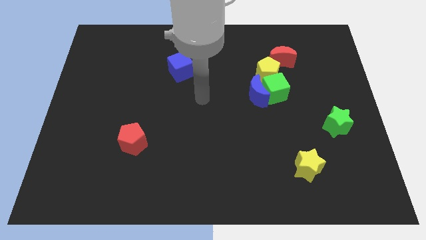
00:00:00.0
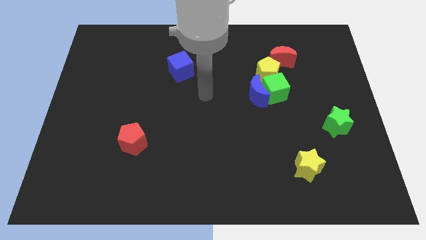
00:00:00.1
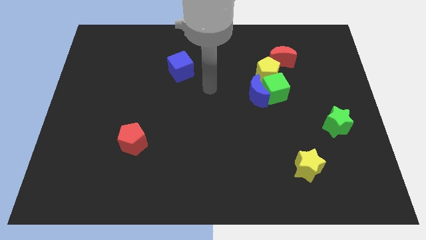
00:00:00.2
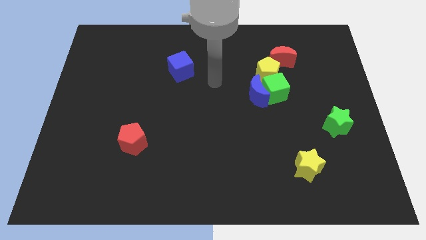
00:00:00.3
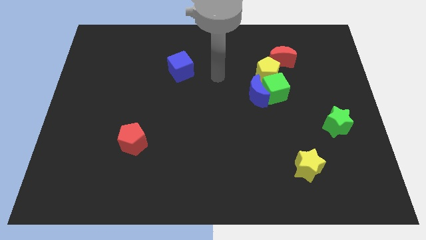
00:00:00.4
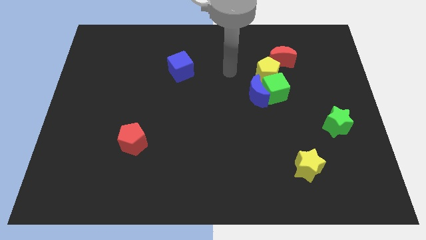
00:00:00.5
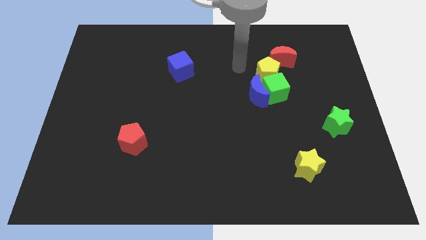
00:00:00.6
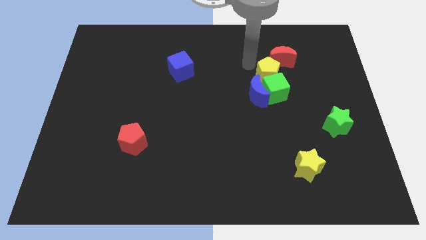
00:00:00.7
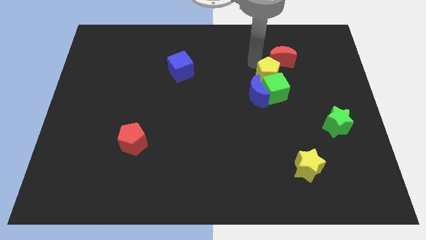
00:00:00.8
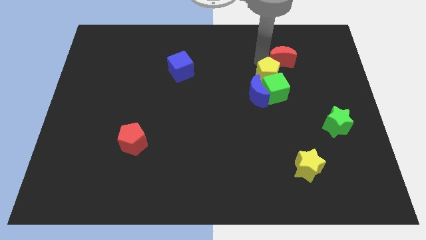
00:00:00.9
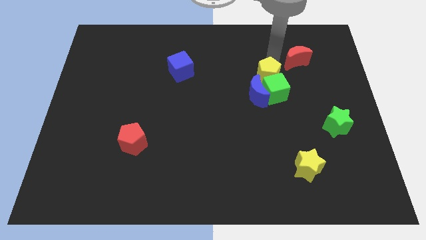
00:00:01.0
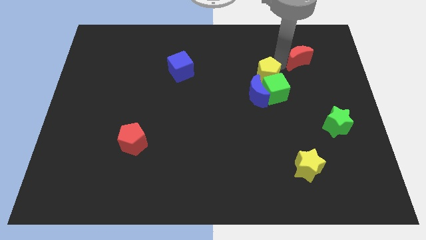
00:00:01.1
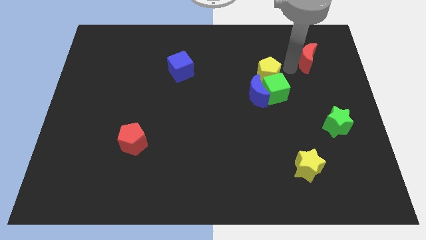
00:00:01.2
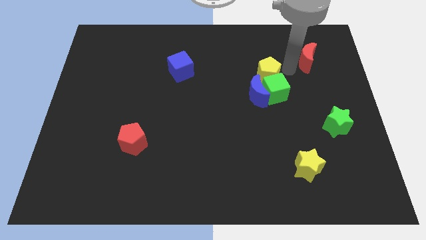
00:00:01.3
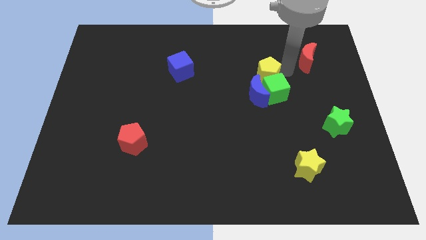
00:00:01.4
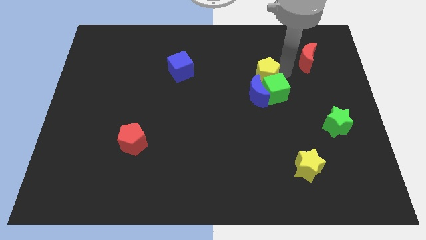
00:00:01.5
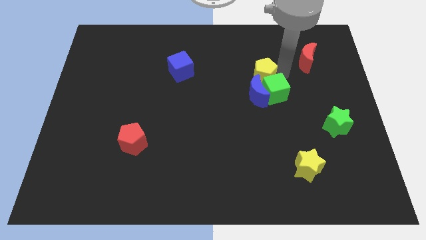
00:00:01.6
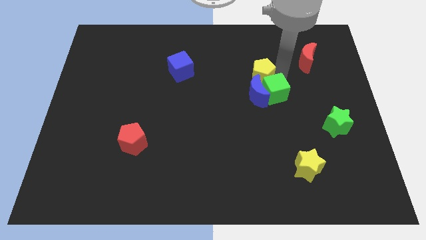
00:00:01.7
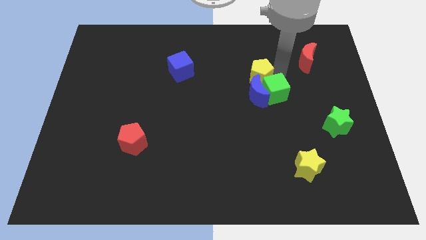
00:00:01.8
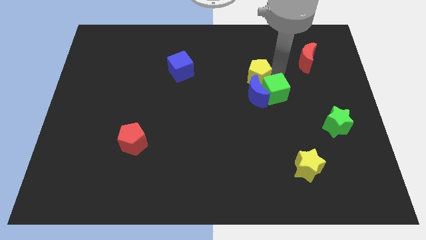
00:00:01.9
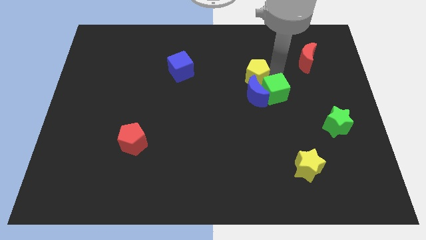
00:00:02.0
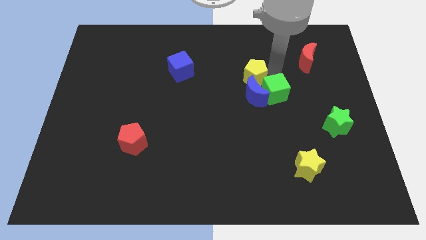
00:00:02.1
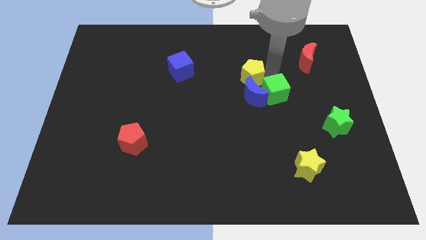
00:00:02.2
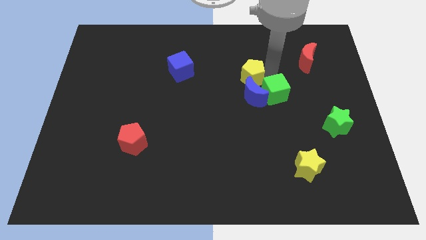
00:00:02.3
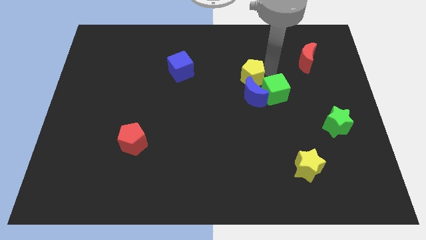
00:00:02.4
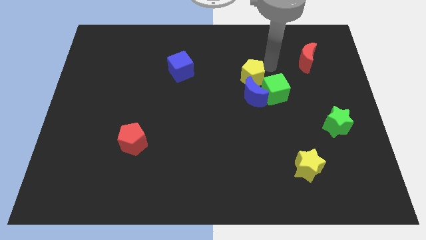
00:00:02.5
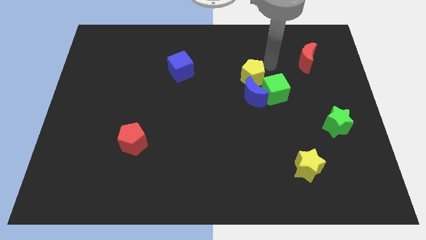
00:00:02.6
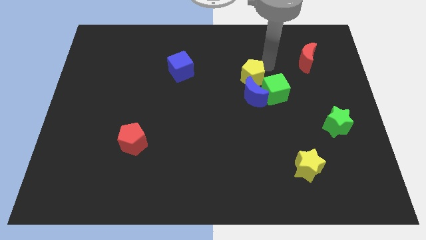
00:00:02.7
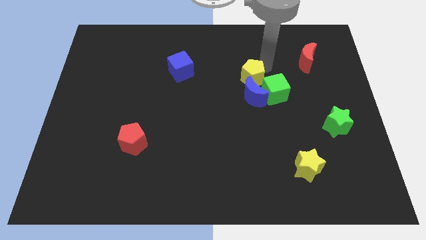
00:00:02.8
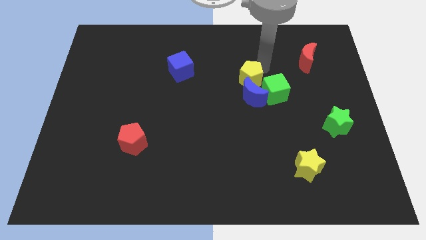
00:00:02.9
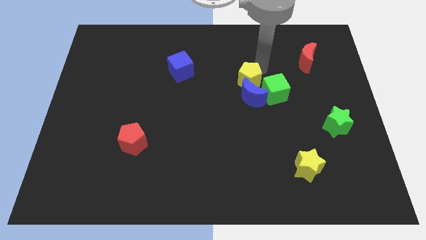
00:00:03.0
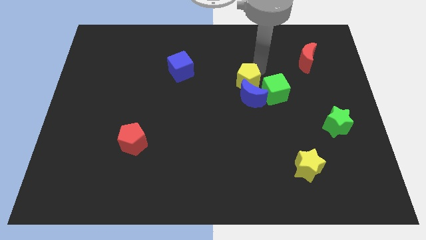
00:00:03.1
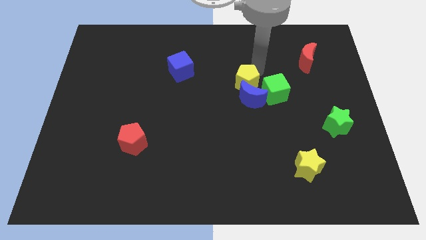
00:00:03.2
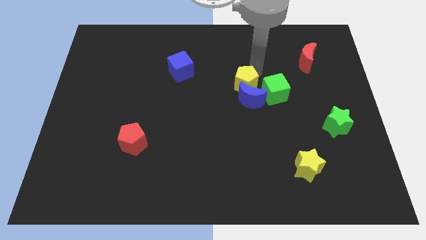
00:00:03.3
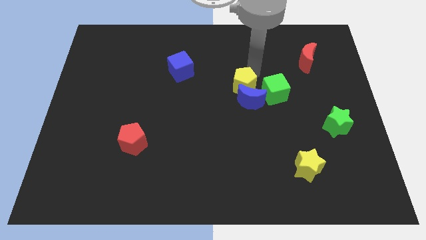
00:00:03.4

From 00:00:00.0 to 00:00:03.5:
move the yellow pentagon a little bit downwards and left

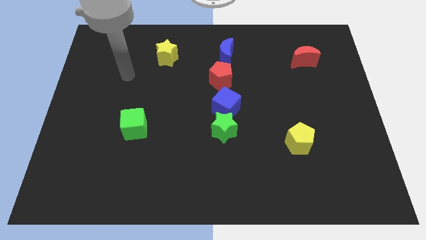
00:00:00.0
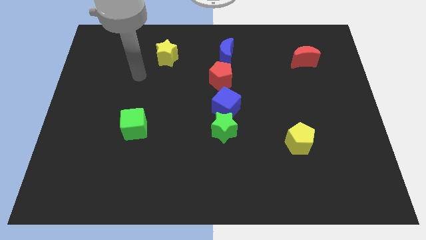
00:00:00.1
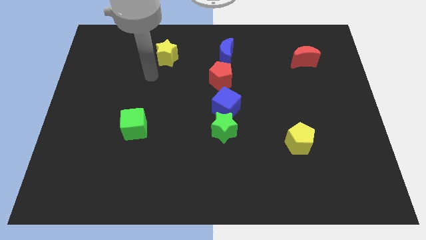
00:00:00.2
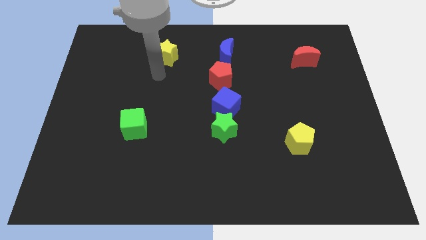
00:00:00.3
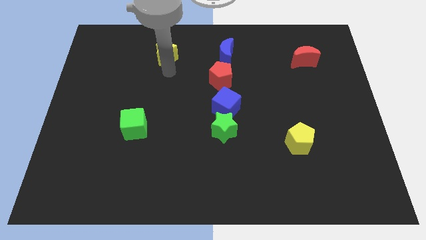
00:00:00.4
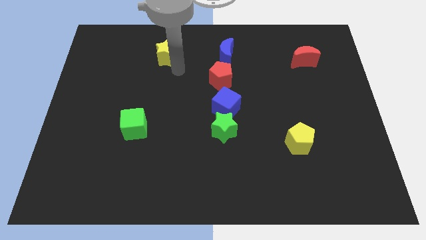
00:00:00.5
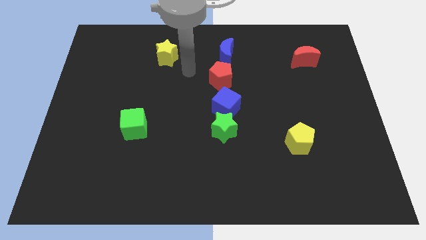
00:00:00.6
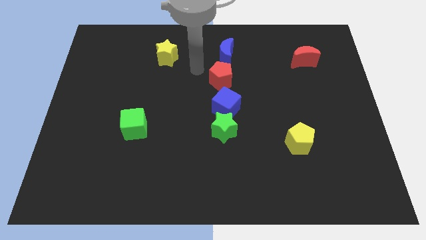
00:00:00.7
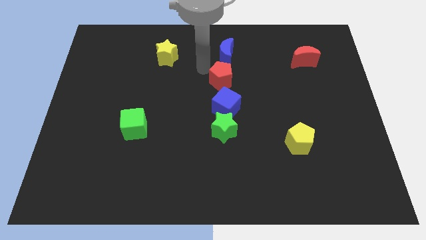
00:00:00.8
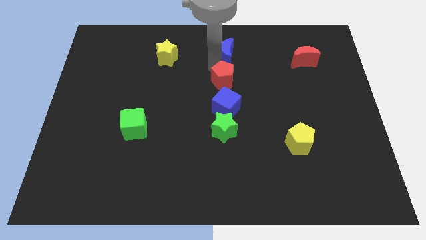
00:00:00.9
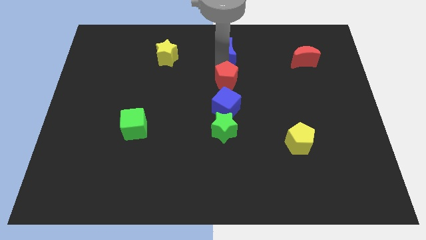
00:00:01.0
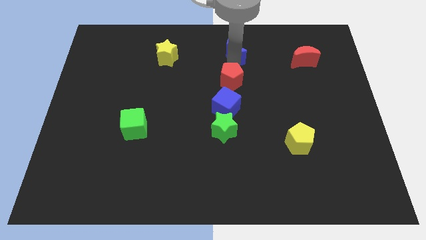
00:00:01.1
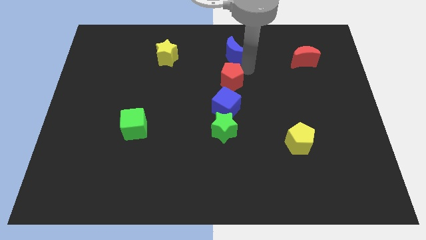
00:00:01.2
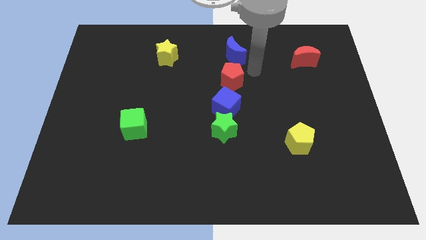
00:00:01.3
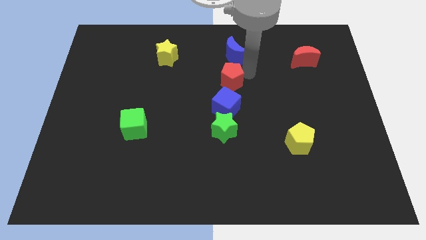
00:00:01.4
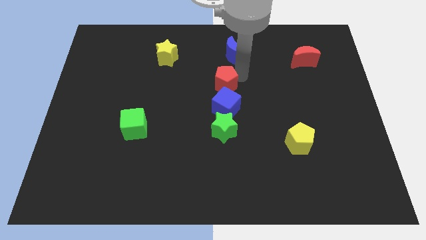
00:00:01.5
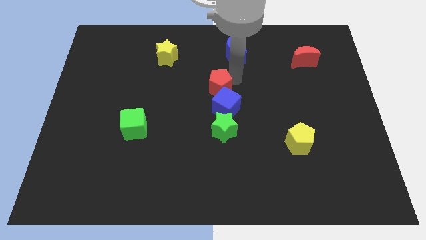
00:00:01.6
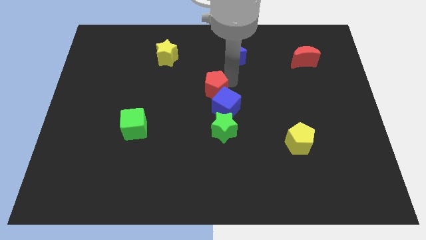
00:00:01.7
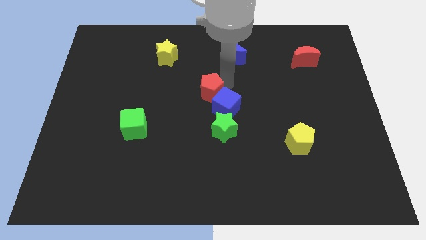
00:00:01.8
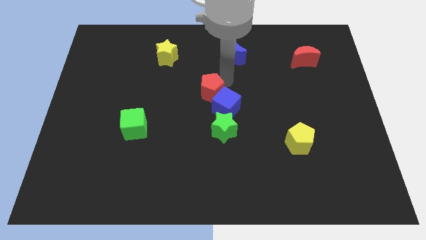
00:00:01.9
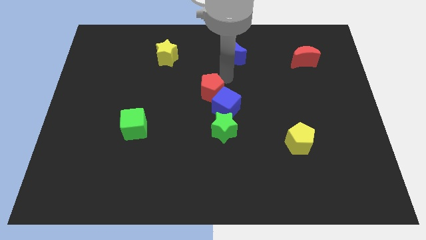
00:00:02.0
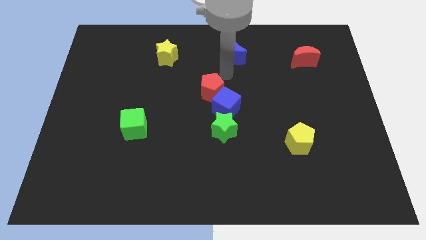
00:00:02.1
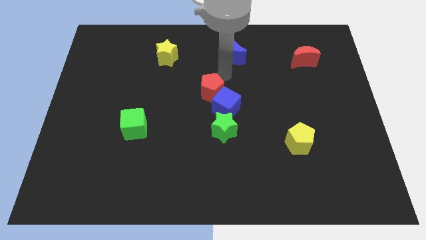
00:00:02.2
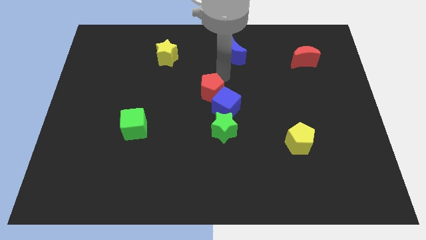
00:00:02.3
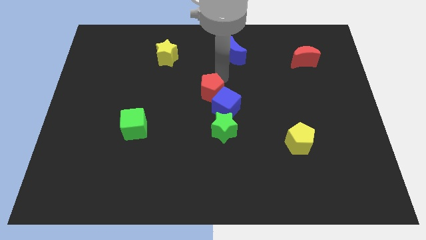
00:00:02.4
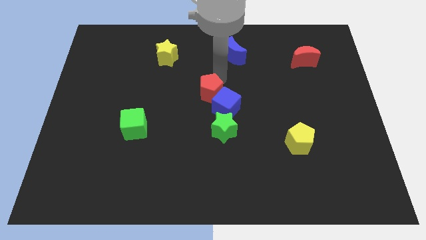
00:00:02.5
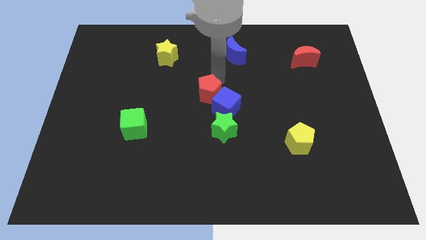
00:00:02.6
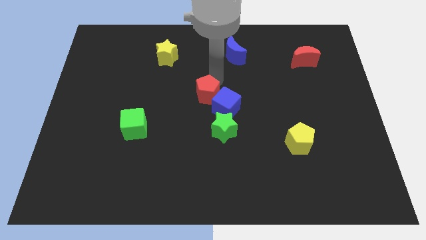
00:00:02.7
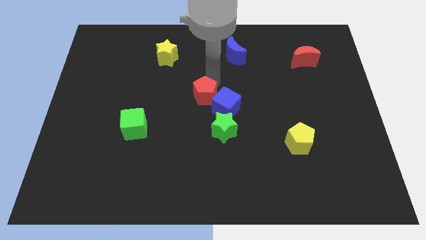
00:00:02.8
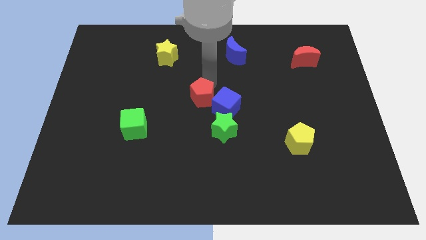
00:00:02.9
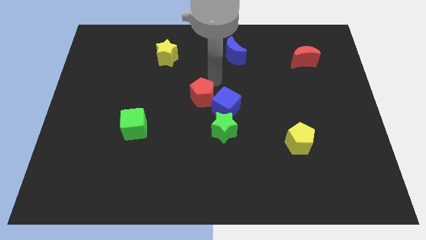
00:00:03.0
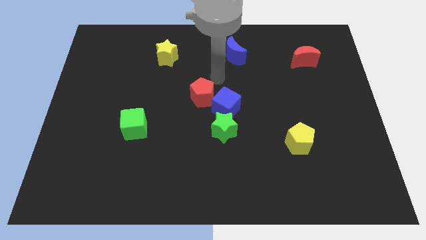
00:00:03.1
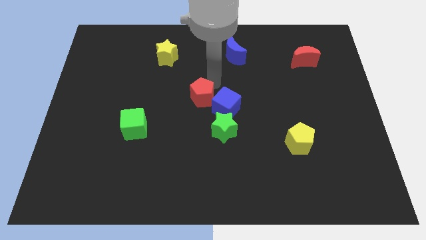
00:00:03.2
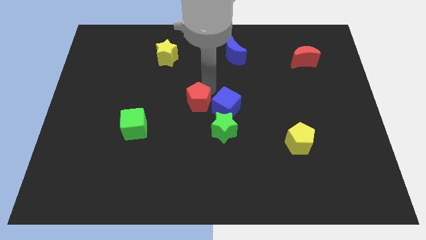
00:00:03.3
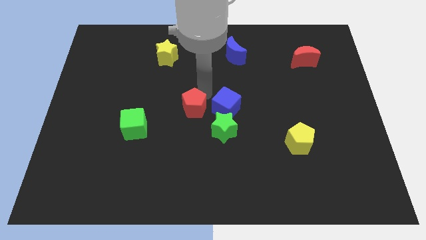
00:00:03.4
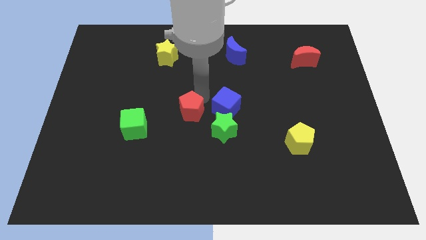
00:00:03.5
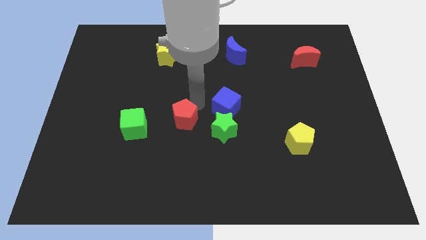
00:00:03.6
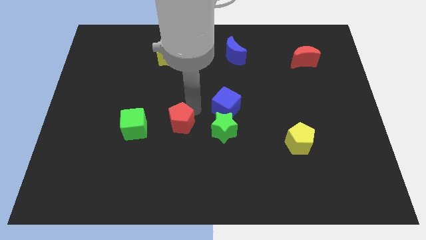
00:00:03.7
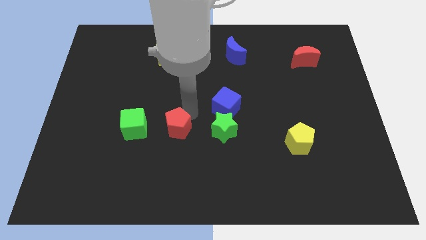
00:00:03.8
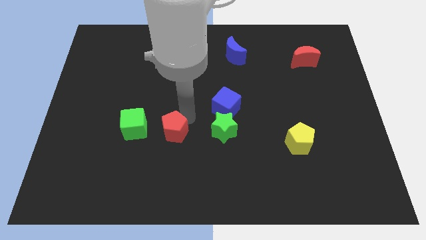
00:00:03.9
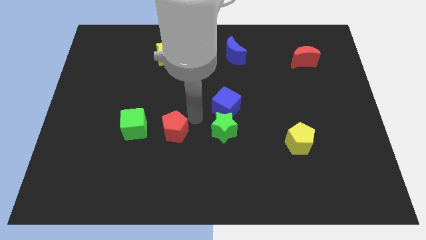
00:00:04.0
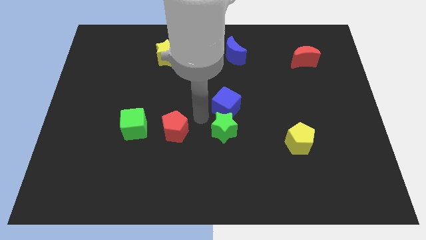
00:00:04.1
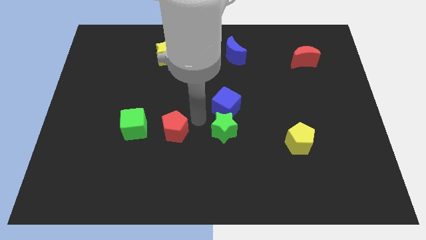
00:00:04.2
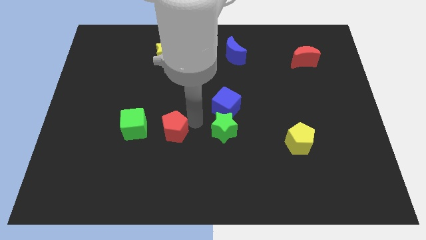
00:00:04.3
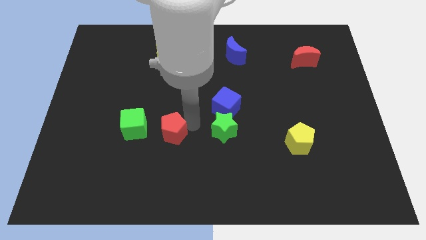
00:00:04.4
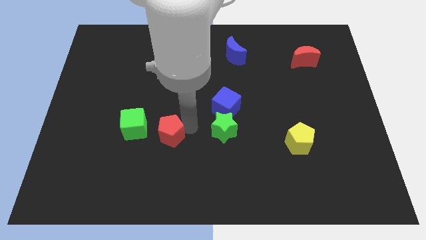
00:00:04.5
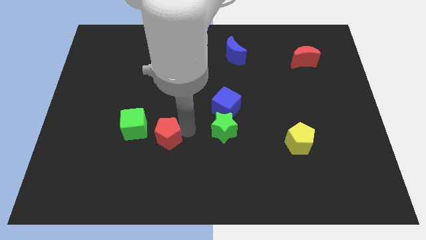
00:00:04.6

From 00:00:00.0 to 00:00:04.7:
slide the red pentagon down and then to the left
